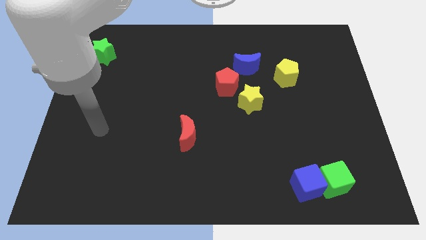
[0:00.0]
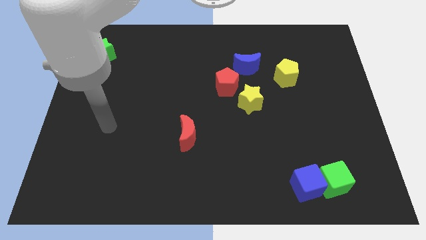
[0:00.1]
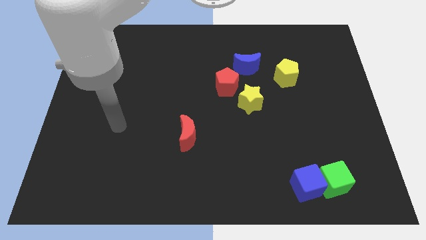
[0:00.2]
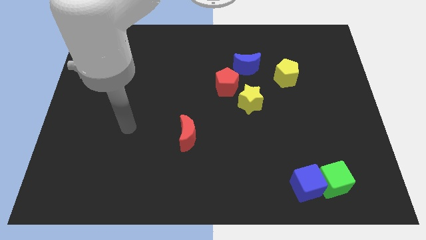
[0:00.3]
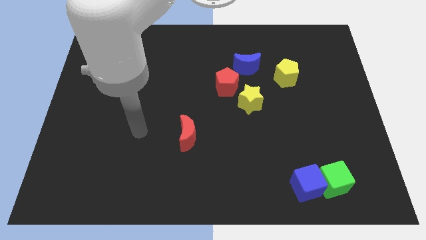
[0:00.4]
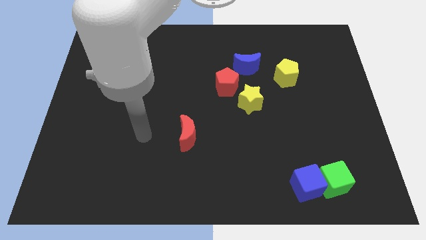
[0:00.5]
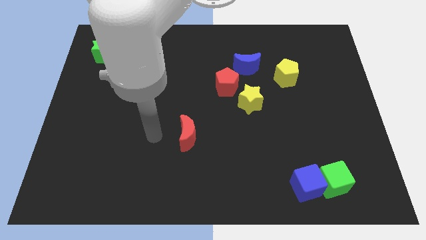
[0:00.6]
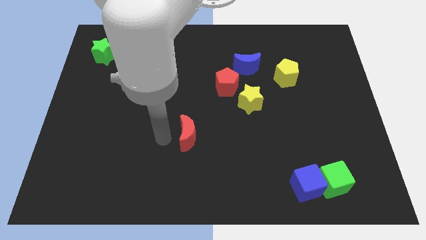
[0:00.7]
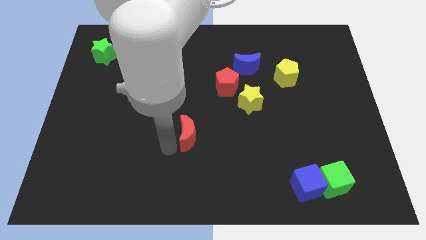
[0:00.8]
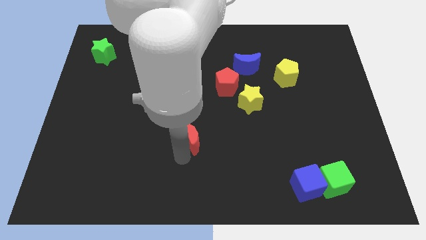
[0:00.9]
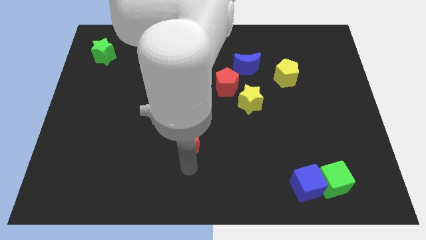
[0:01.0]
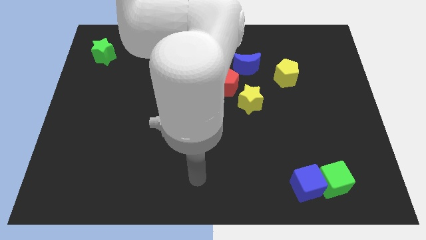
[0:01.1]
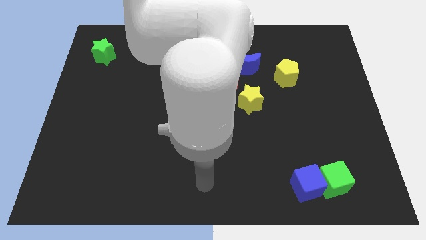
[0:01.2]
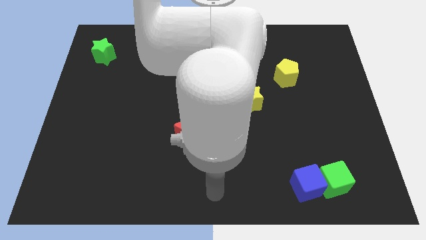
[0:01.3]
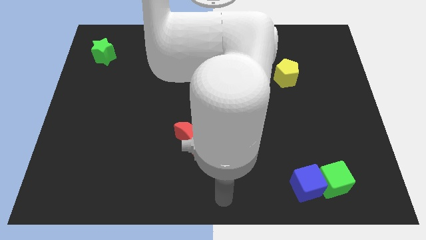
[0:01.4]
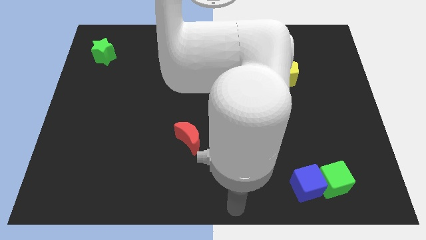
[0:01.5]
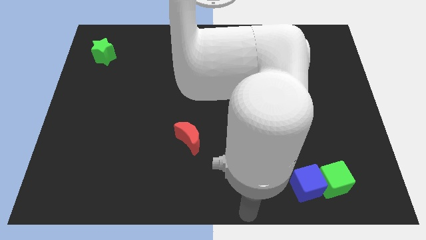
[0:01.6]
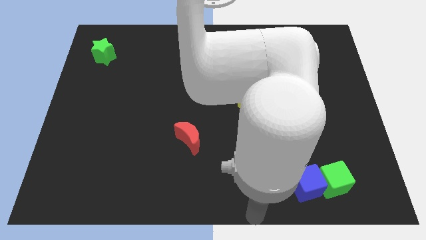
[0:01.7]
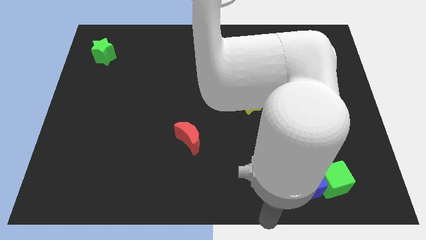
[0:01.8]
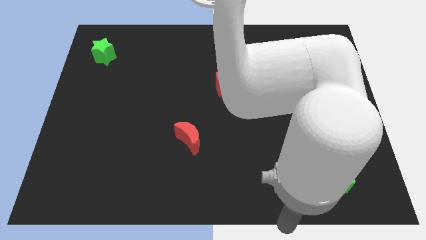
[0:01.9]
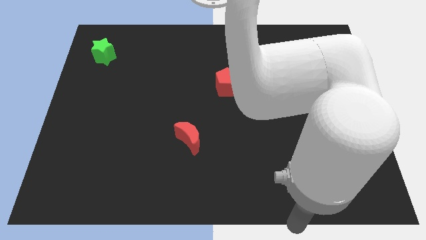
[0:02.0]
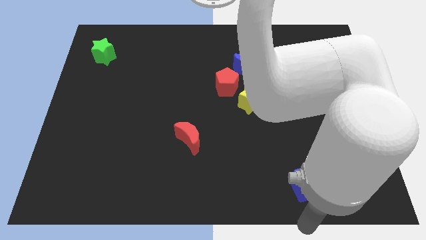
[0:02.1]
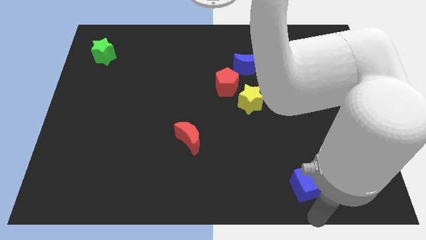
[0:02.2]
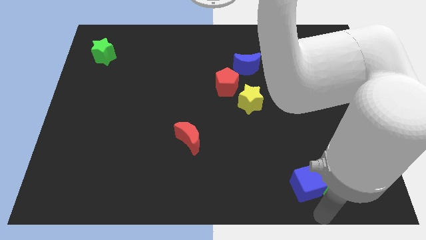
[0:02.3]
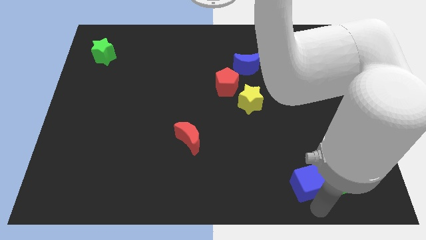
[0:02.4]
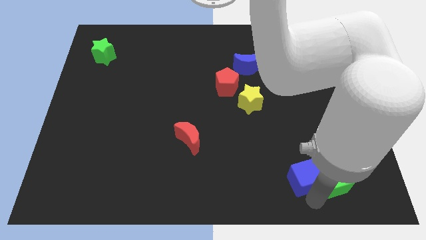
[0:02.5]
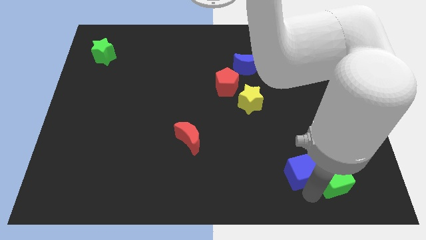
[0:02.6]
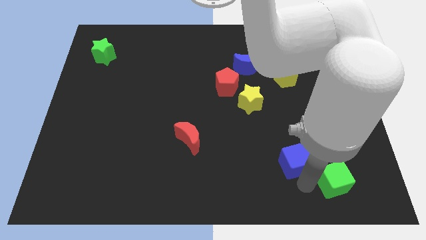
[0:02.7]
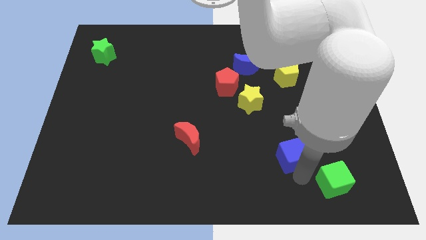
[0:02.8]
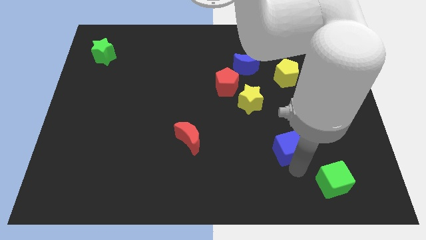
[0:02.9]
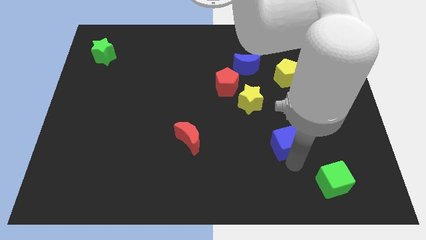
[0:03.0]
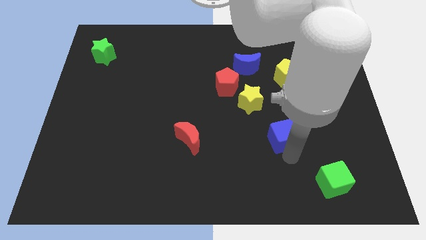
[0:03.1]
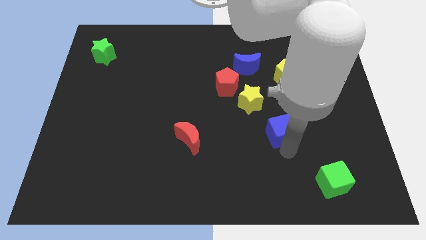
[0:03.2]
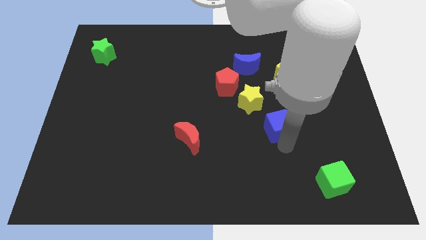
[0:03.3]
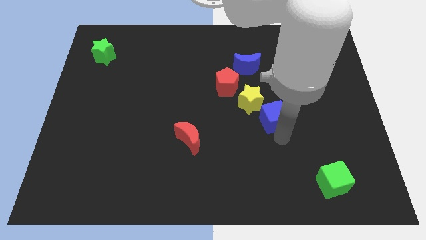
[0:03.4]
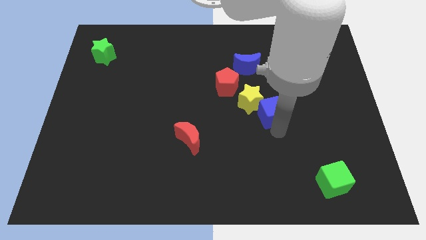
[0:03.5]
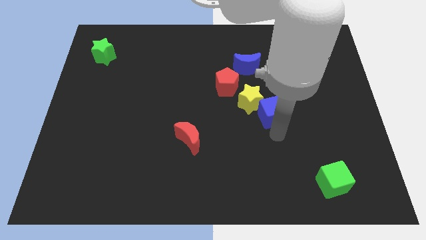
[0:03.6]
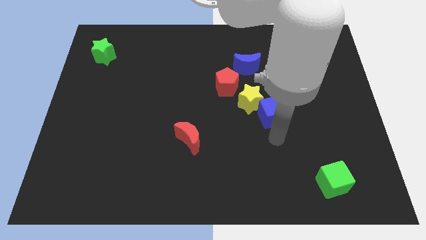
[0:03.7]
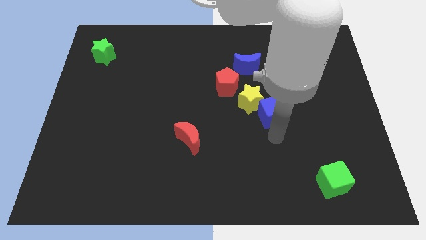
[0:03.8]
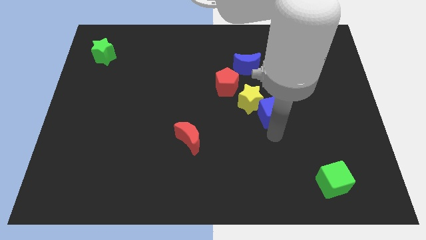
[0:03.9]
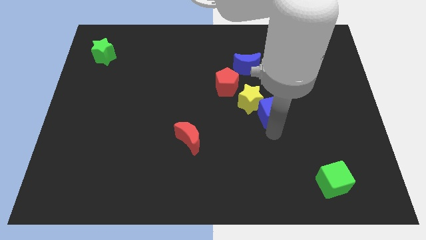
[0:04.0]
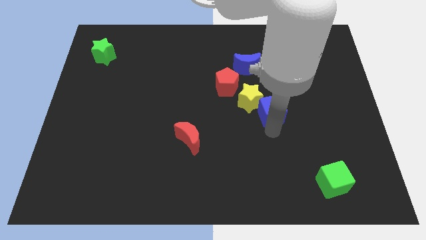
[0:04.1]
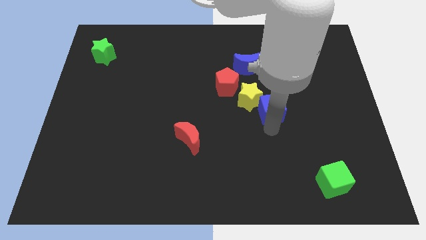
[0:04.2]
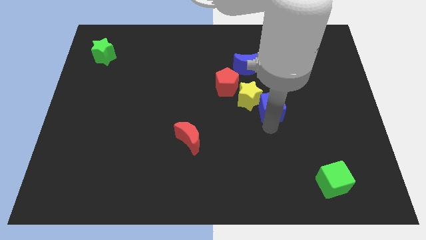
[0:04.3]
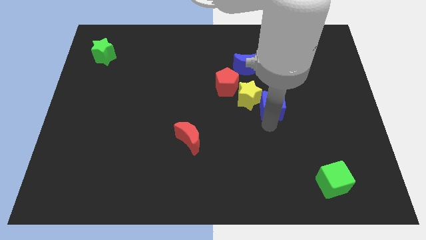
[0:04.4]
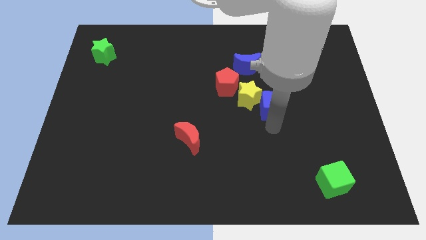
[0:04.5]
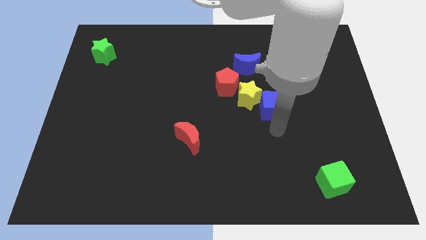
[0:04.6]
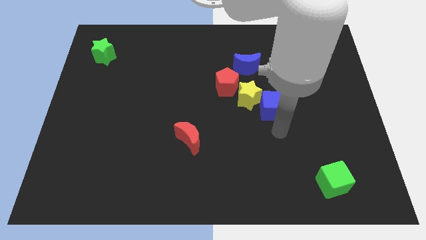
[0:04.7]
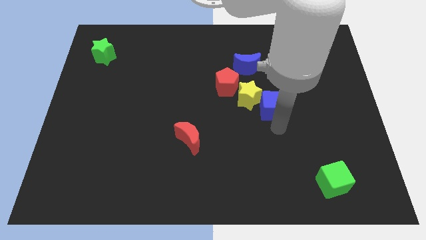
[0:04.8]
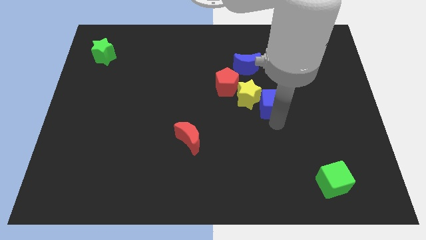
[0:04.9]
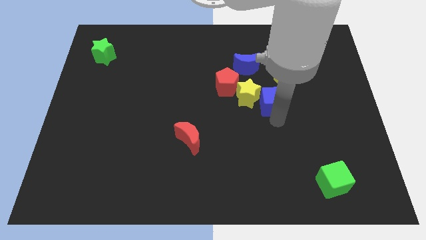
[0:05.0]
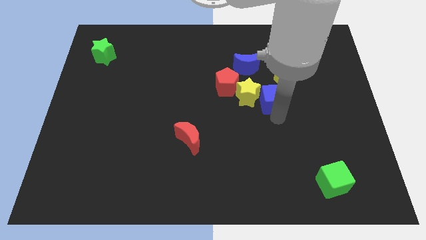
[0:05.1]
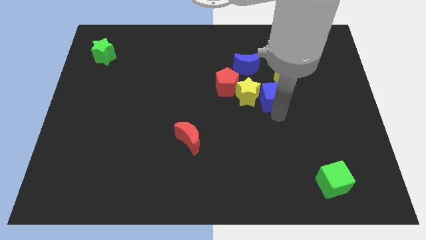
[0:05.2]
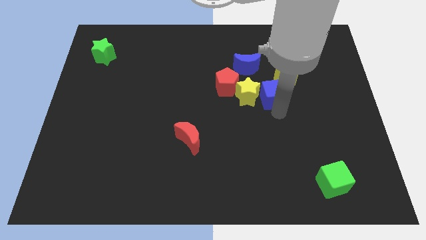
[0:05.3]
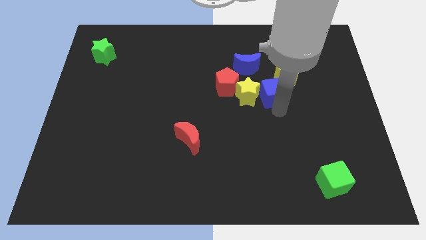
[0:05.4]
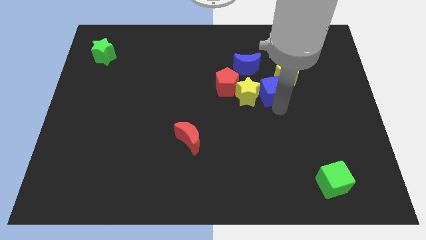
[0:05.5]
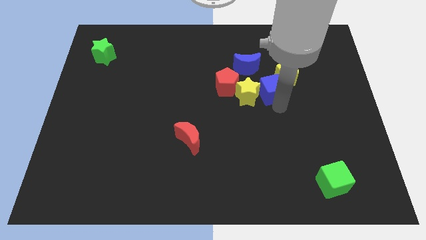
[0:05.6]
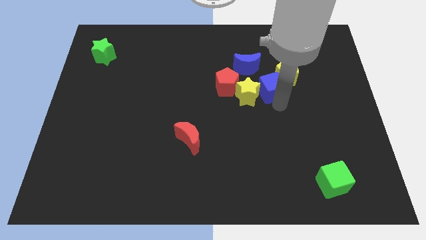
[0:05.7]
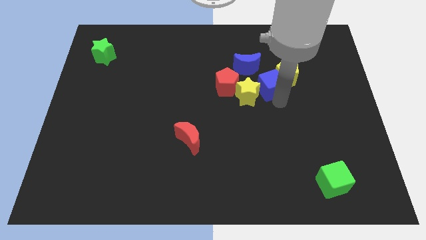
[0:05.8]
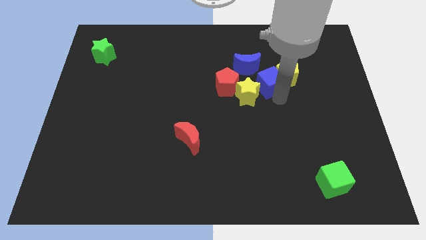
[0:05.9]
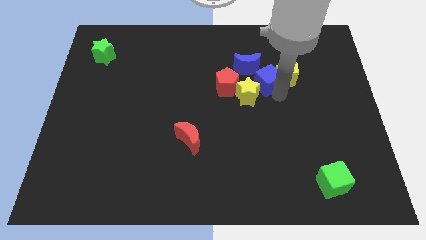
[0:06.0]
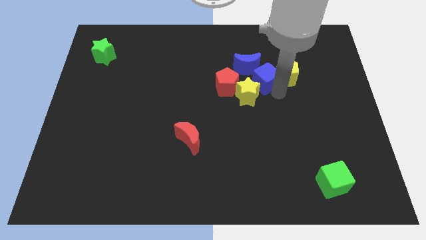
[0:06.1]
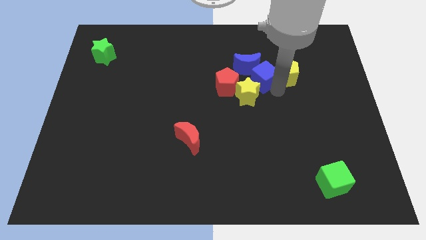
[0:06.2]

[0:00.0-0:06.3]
move the blue cube to the blue moon

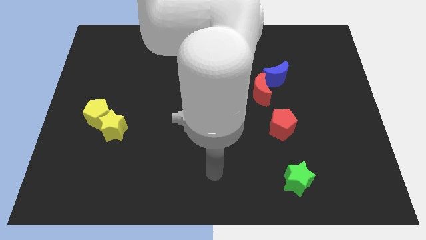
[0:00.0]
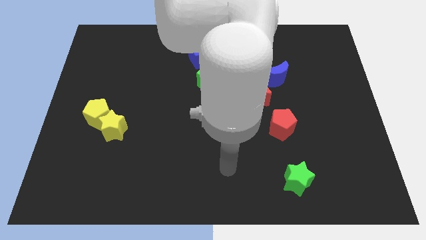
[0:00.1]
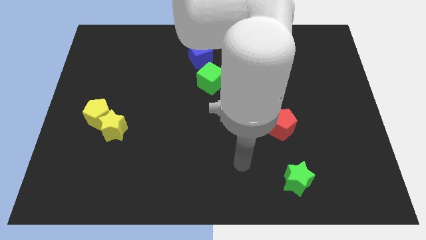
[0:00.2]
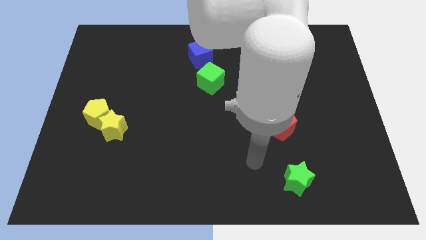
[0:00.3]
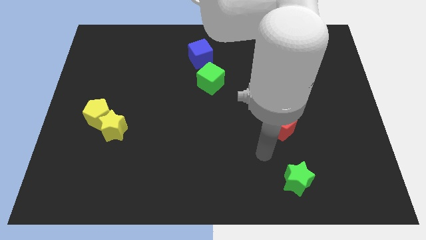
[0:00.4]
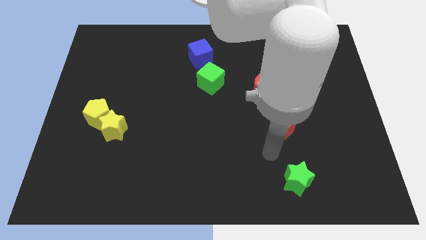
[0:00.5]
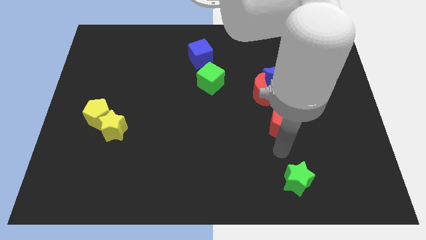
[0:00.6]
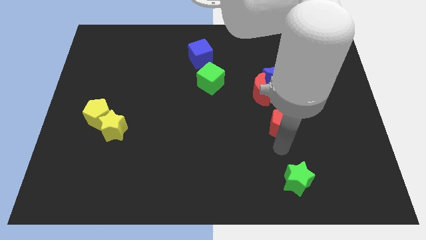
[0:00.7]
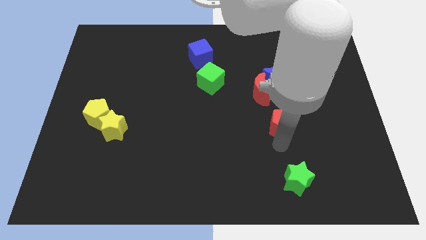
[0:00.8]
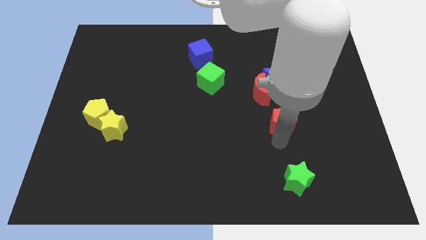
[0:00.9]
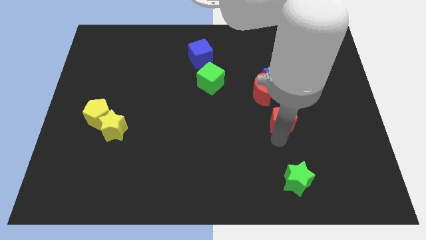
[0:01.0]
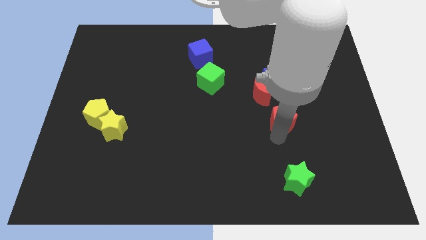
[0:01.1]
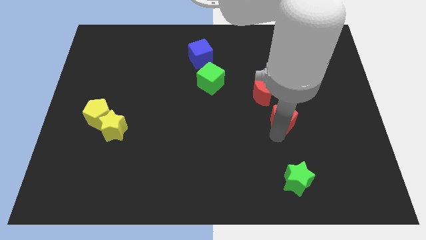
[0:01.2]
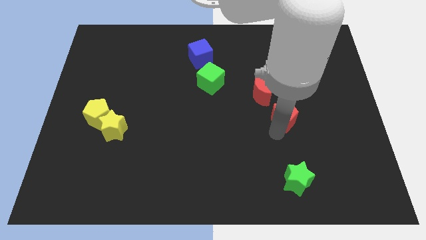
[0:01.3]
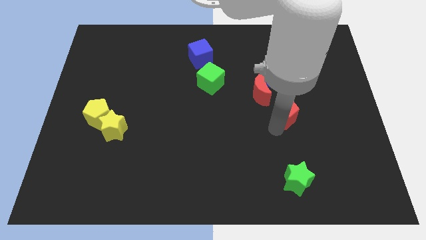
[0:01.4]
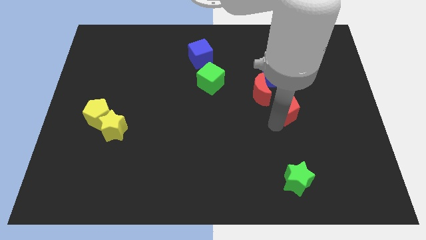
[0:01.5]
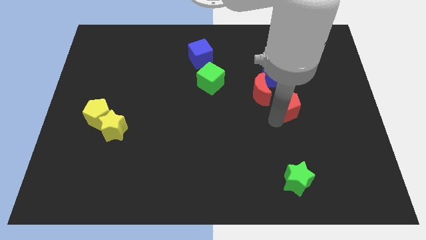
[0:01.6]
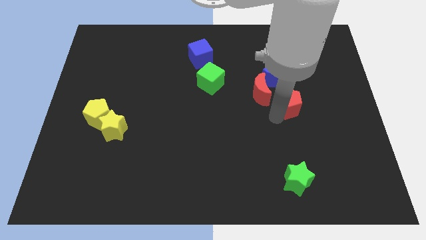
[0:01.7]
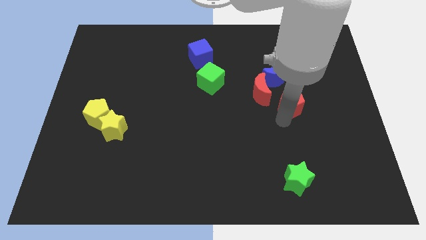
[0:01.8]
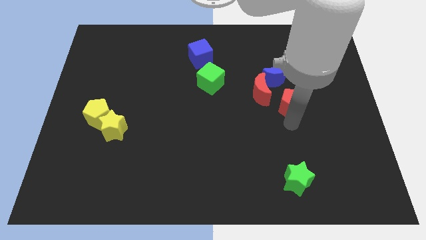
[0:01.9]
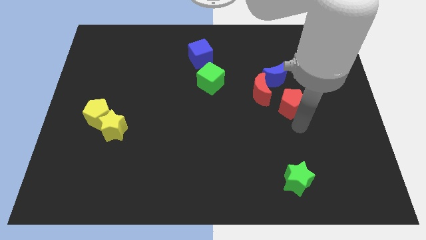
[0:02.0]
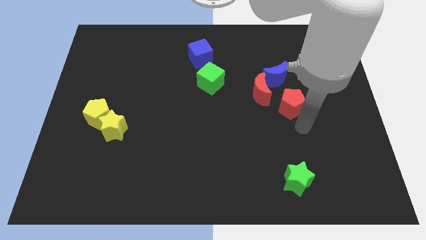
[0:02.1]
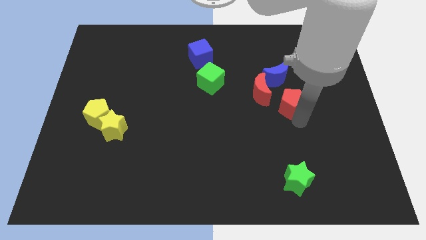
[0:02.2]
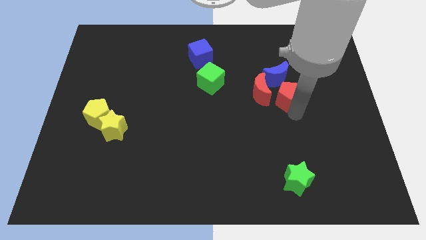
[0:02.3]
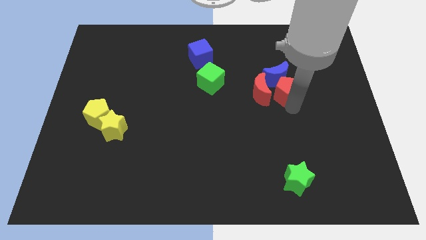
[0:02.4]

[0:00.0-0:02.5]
put the red pentagon close to the blue moon
